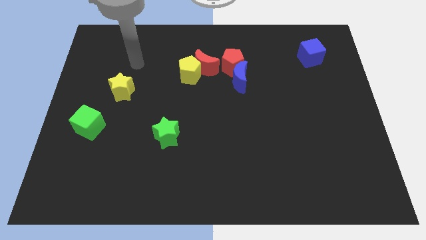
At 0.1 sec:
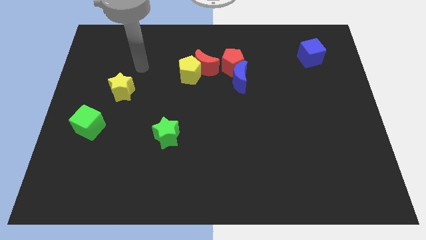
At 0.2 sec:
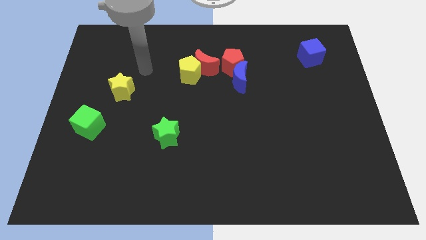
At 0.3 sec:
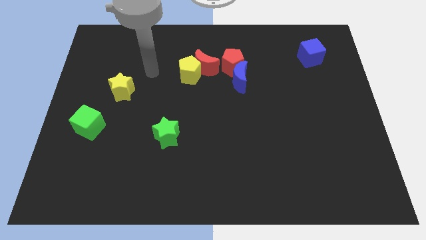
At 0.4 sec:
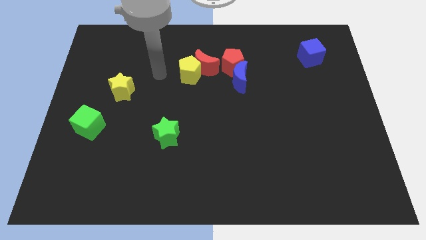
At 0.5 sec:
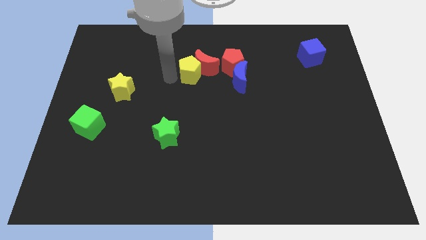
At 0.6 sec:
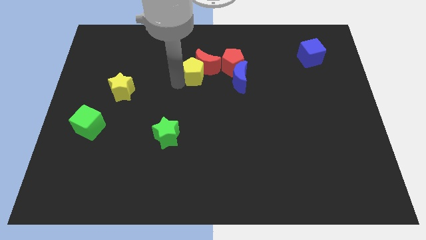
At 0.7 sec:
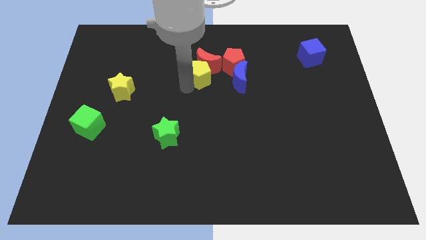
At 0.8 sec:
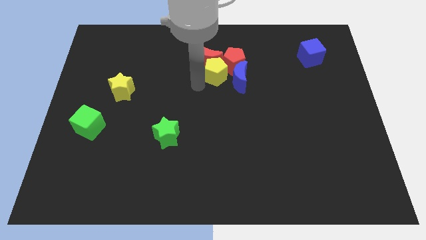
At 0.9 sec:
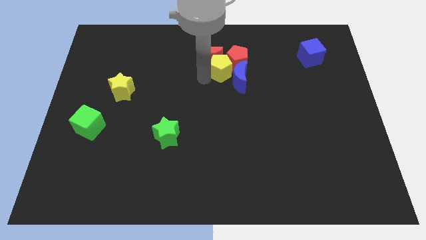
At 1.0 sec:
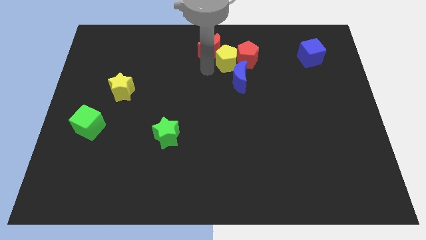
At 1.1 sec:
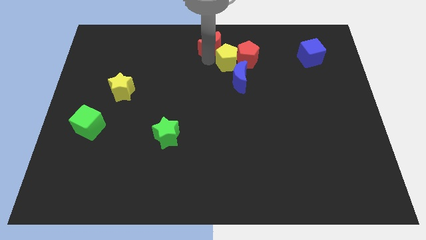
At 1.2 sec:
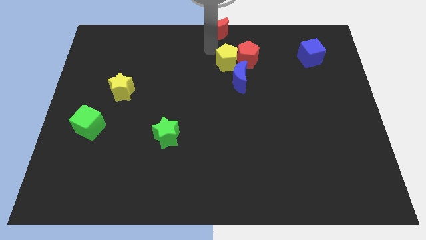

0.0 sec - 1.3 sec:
move the yellow pentagon away from the red moon

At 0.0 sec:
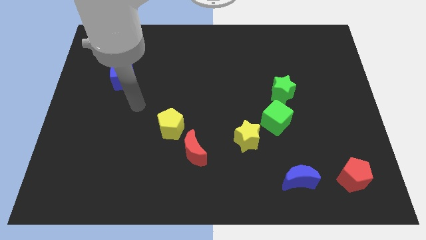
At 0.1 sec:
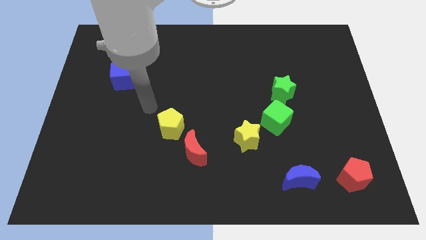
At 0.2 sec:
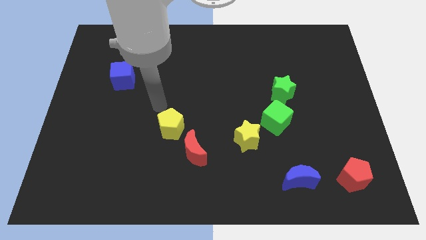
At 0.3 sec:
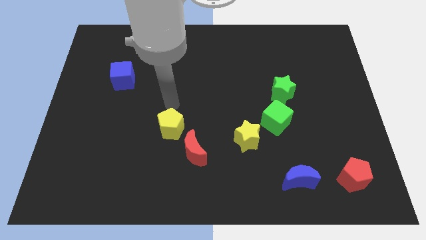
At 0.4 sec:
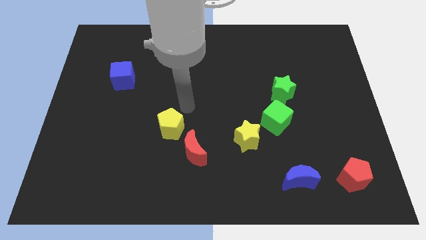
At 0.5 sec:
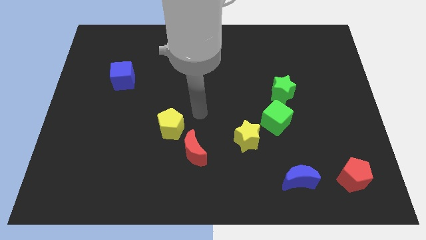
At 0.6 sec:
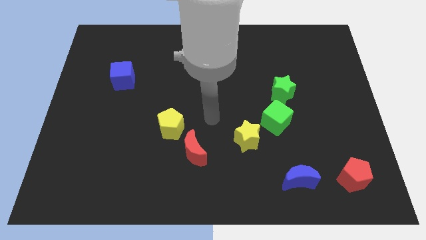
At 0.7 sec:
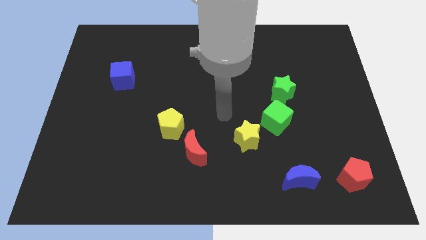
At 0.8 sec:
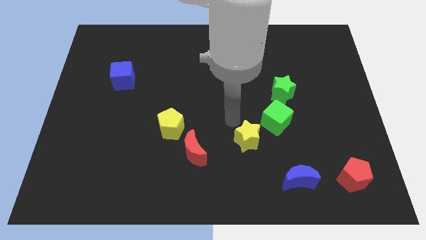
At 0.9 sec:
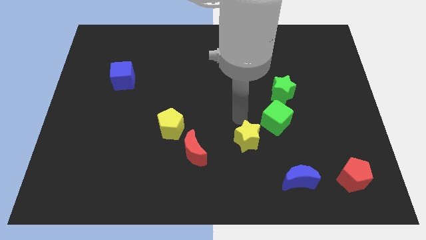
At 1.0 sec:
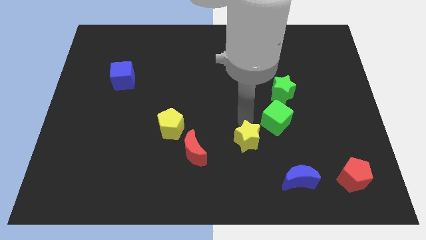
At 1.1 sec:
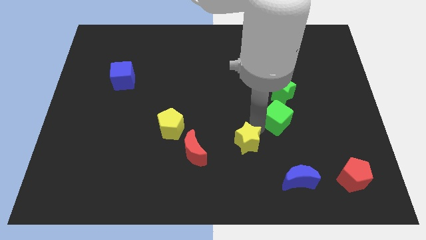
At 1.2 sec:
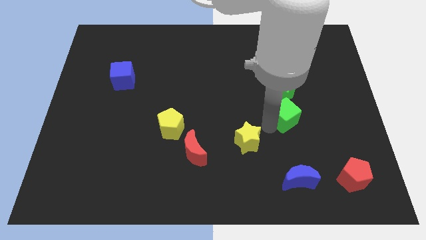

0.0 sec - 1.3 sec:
move the yellow star away from the green cube

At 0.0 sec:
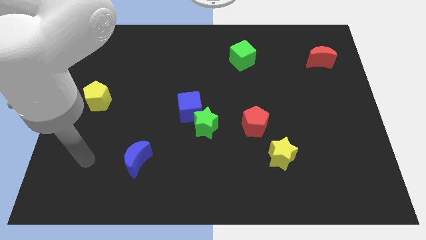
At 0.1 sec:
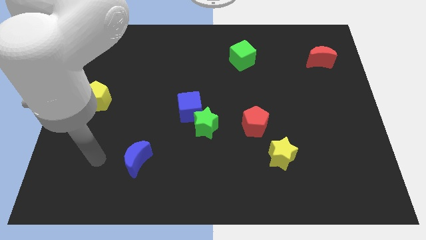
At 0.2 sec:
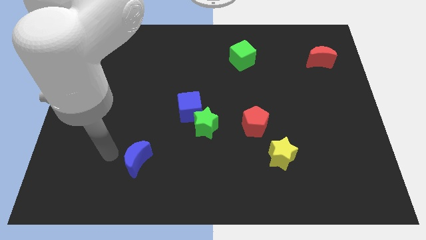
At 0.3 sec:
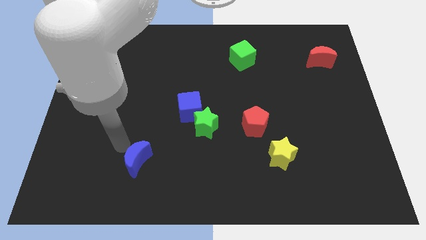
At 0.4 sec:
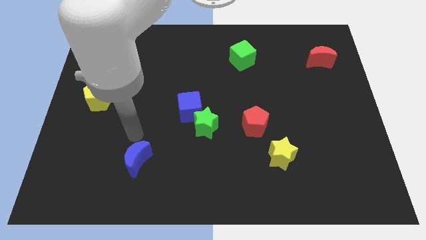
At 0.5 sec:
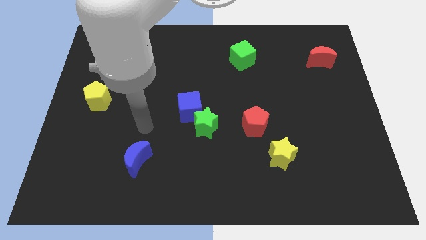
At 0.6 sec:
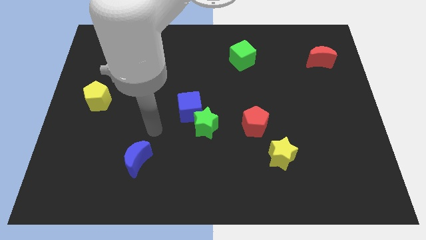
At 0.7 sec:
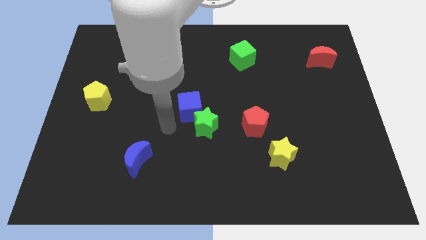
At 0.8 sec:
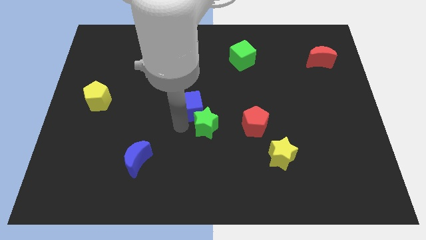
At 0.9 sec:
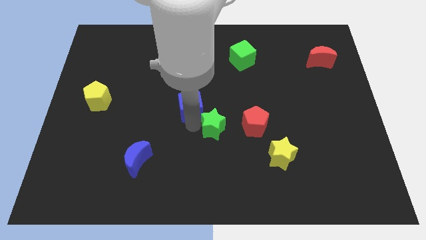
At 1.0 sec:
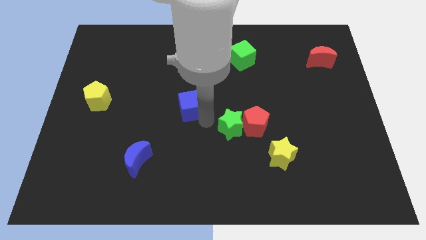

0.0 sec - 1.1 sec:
separate the blue cube from the green star

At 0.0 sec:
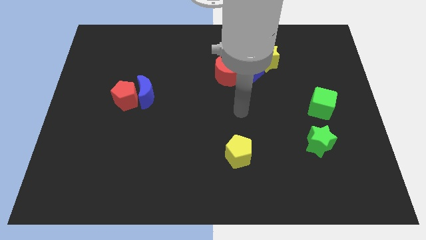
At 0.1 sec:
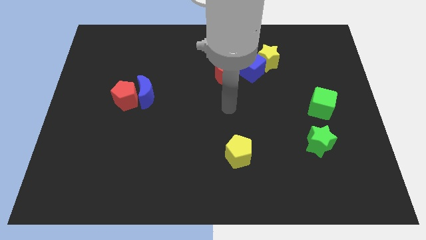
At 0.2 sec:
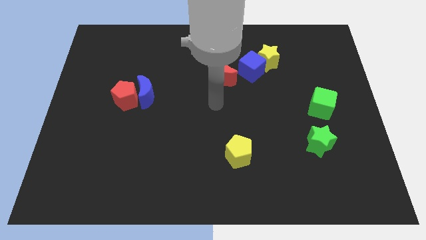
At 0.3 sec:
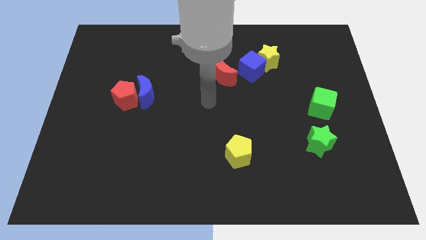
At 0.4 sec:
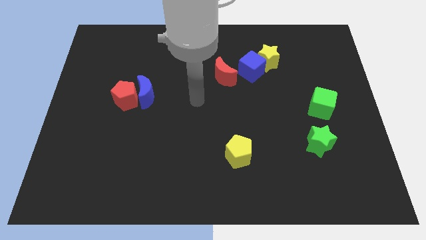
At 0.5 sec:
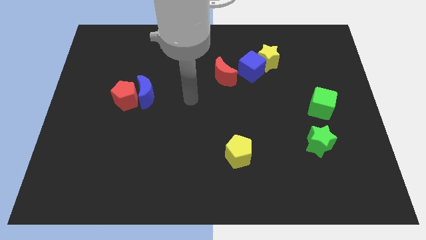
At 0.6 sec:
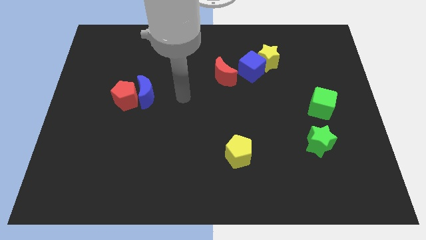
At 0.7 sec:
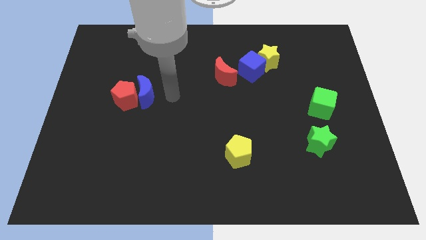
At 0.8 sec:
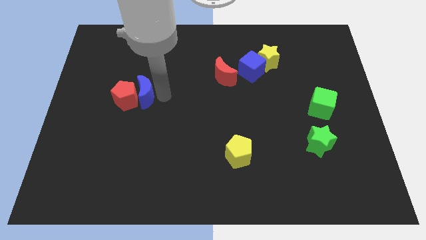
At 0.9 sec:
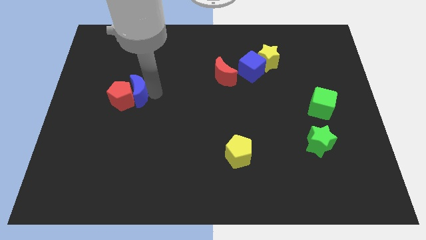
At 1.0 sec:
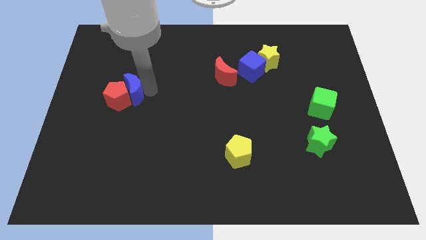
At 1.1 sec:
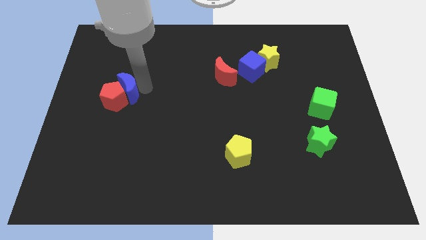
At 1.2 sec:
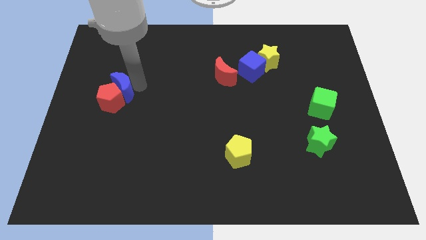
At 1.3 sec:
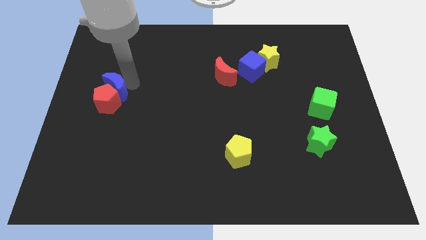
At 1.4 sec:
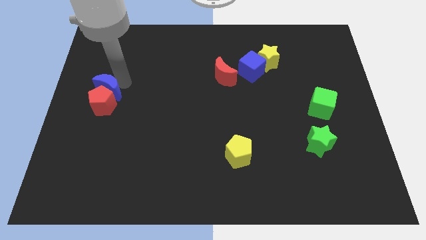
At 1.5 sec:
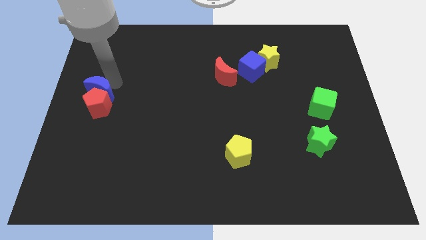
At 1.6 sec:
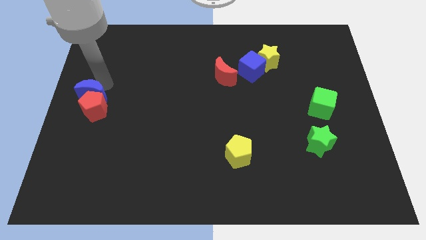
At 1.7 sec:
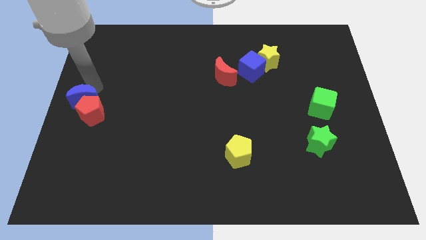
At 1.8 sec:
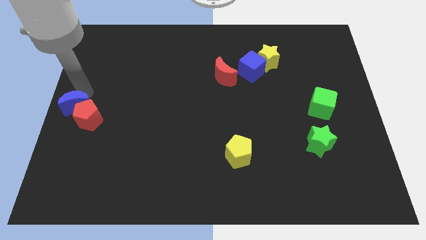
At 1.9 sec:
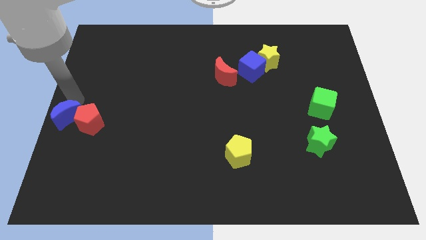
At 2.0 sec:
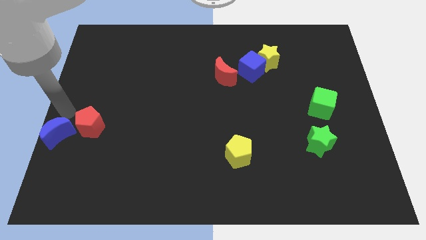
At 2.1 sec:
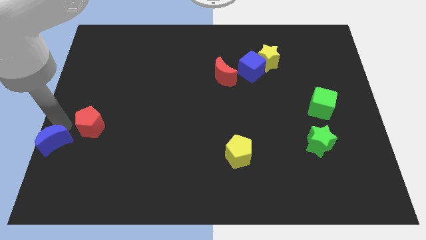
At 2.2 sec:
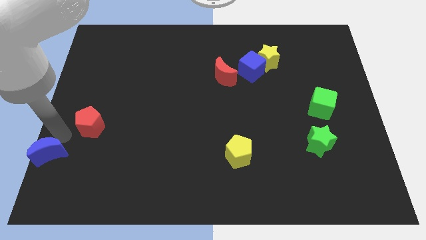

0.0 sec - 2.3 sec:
move the red pentagon away from the blue moon

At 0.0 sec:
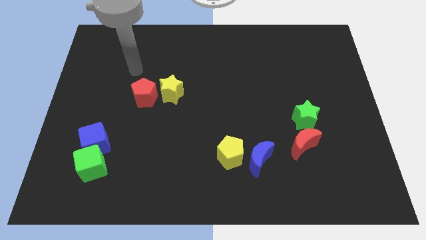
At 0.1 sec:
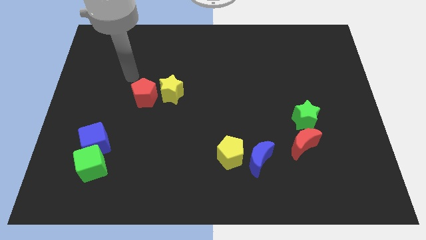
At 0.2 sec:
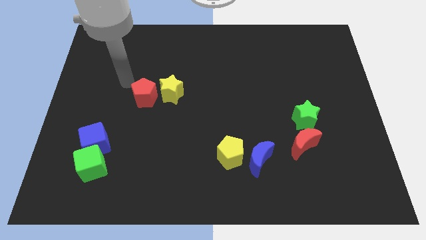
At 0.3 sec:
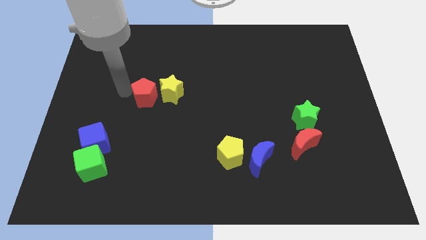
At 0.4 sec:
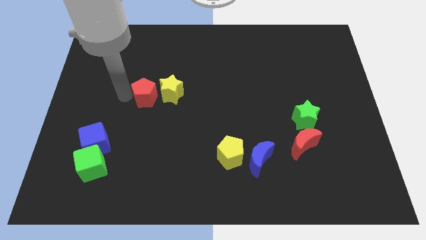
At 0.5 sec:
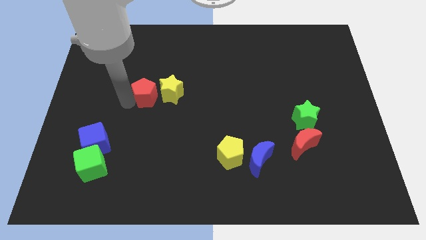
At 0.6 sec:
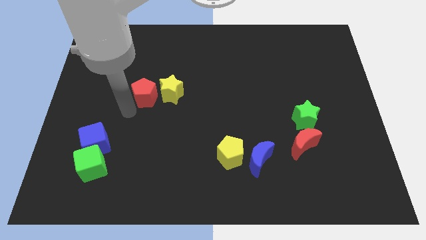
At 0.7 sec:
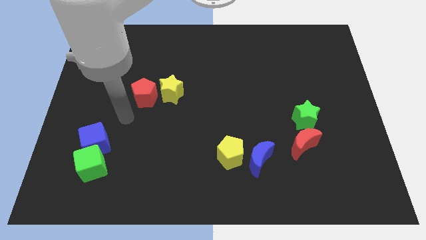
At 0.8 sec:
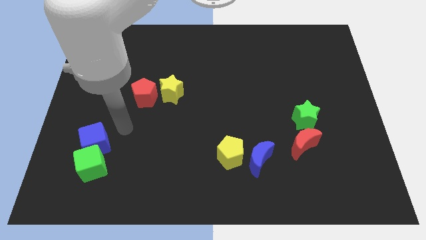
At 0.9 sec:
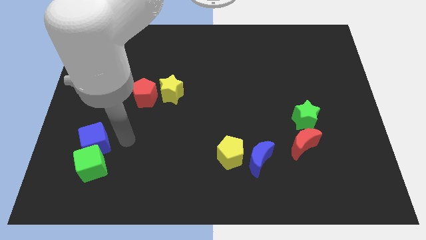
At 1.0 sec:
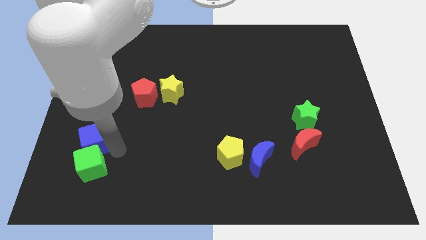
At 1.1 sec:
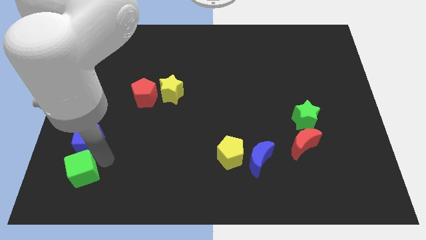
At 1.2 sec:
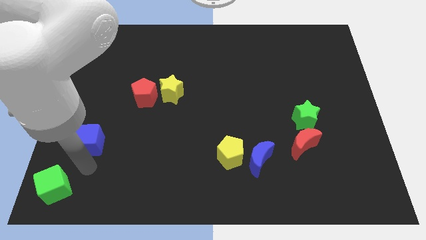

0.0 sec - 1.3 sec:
separate the blue cube from the green cube

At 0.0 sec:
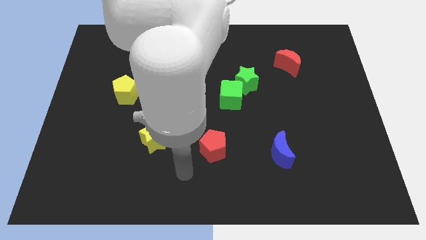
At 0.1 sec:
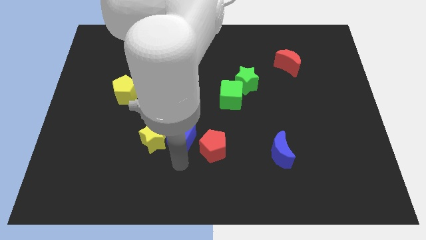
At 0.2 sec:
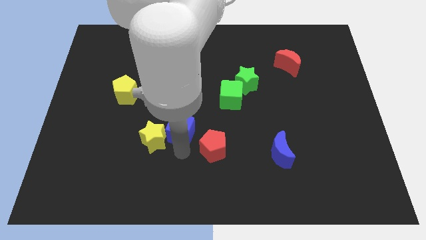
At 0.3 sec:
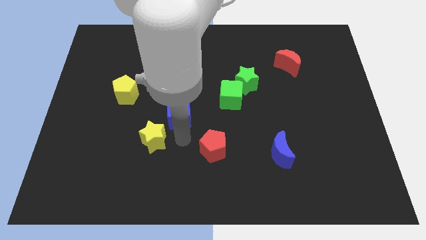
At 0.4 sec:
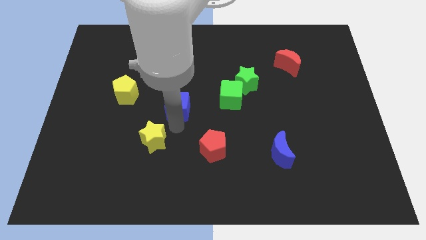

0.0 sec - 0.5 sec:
move the yellow star away from the blue cube

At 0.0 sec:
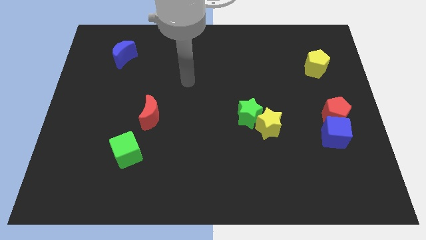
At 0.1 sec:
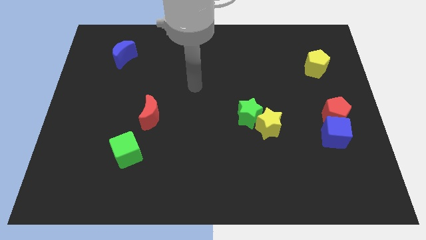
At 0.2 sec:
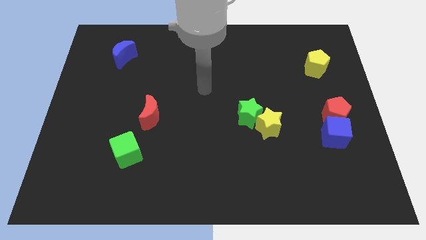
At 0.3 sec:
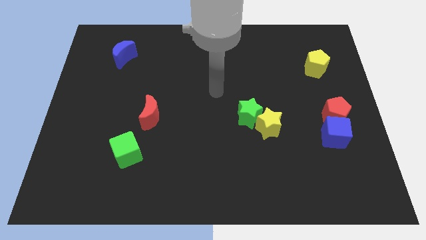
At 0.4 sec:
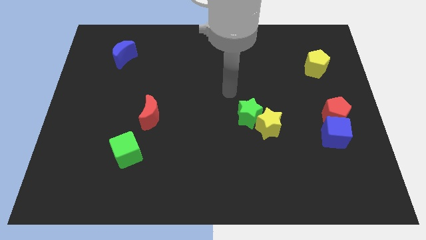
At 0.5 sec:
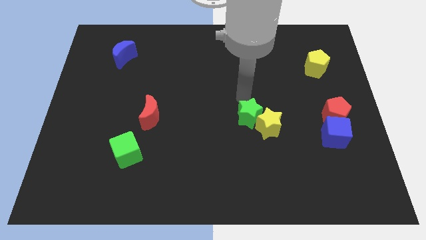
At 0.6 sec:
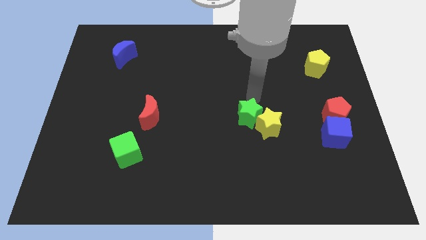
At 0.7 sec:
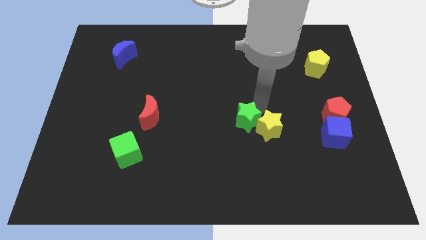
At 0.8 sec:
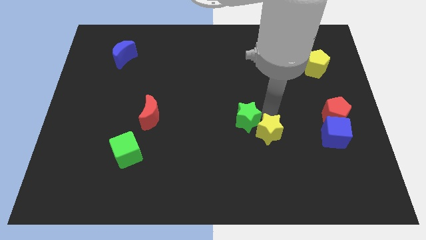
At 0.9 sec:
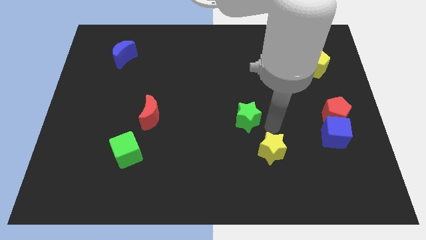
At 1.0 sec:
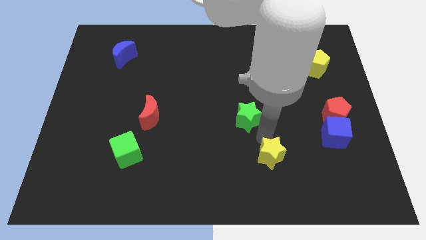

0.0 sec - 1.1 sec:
separate the green star from the yellow star

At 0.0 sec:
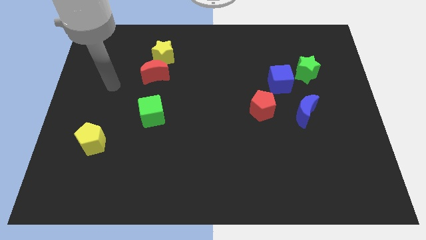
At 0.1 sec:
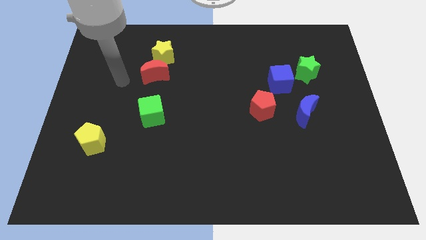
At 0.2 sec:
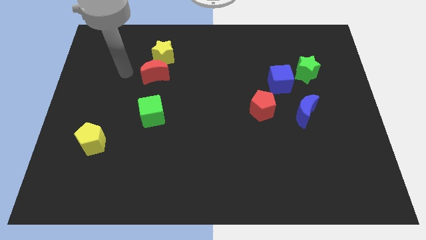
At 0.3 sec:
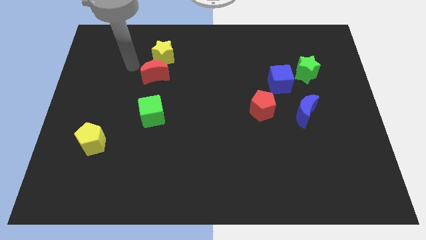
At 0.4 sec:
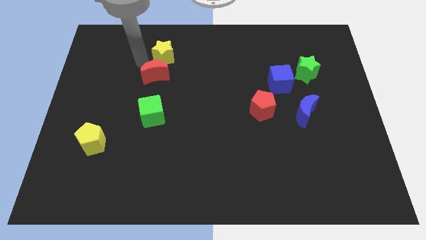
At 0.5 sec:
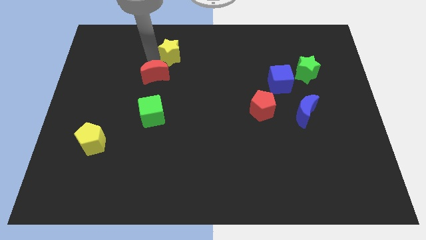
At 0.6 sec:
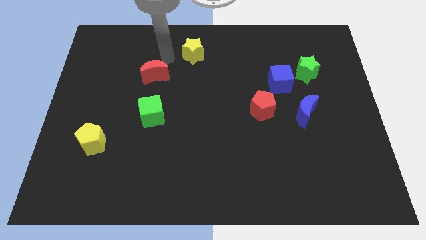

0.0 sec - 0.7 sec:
move the red moon away from the yellow star
